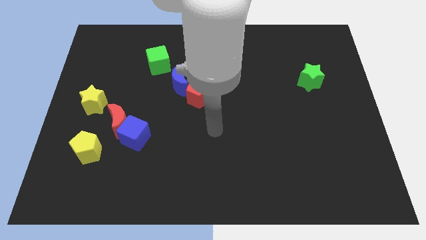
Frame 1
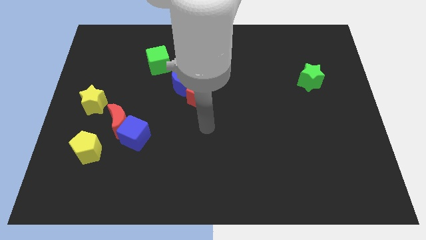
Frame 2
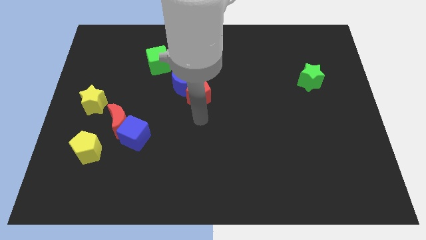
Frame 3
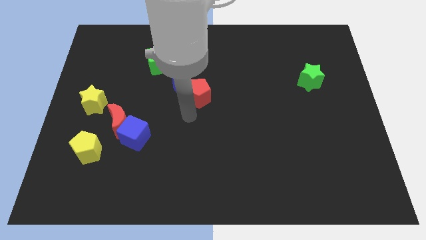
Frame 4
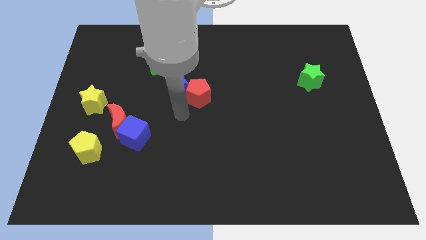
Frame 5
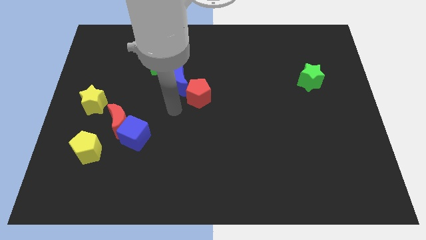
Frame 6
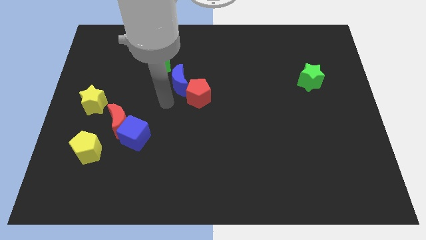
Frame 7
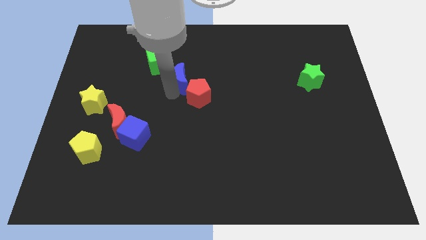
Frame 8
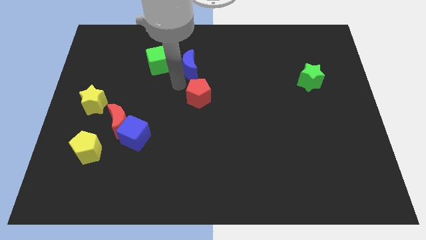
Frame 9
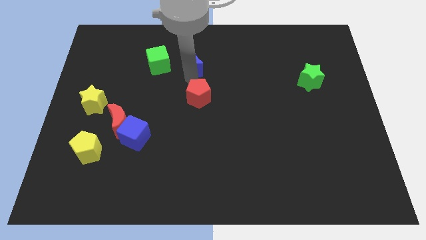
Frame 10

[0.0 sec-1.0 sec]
move the red pentagon away from the blue moon

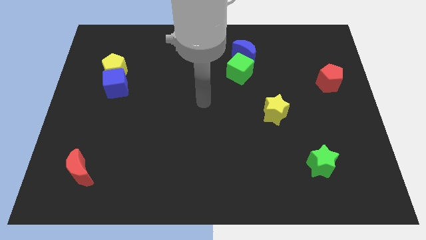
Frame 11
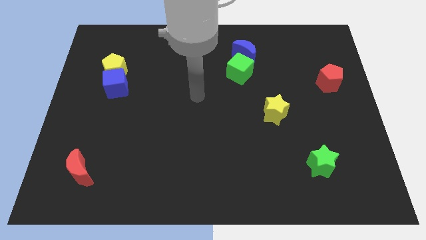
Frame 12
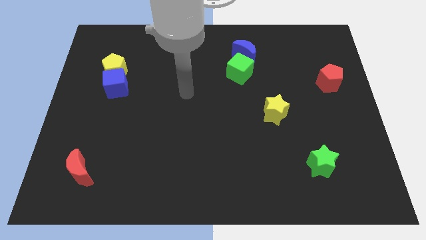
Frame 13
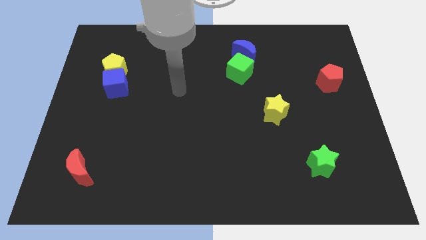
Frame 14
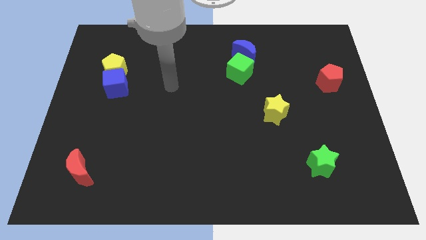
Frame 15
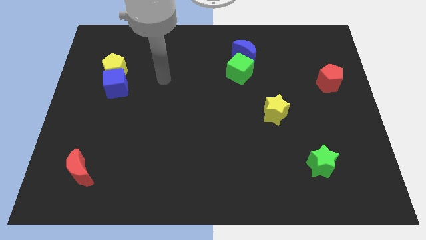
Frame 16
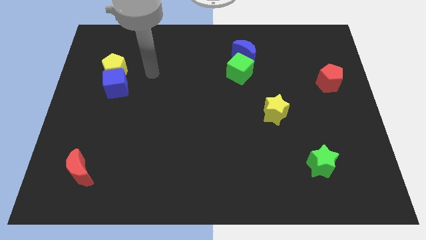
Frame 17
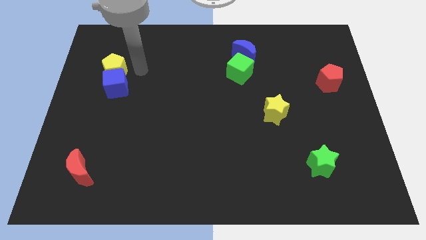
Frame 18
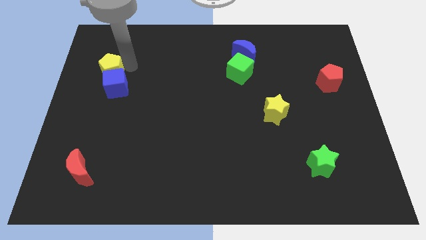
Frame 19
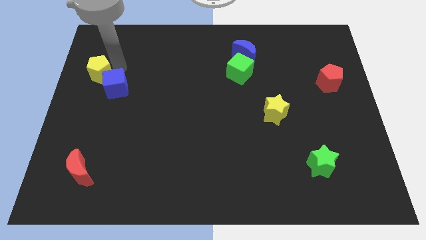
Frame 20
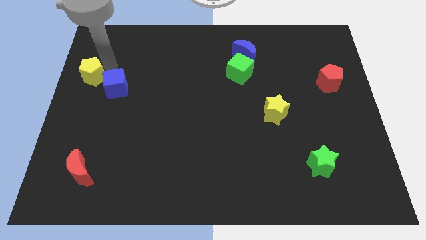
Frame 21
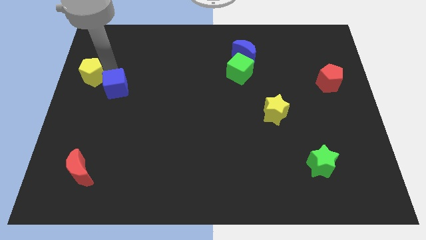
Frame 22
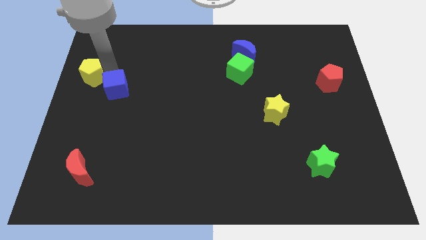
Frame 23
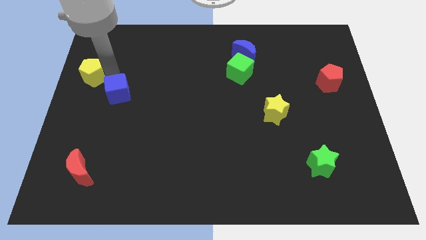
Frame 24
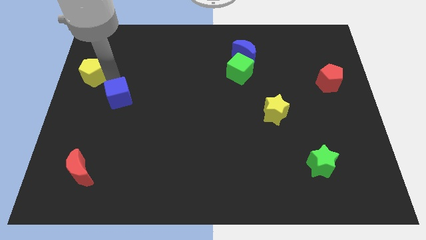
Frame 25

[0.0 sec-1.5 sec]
separate the blue cube from the yellow pentagon

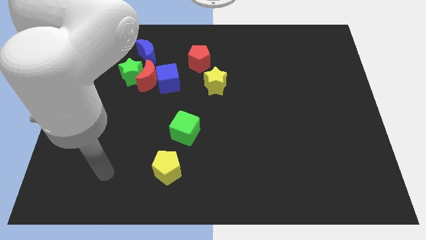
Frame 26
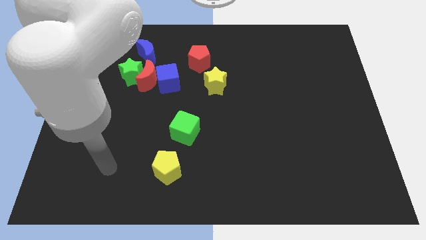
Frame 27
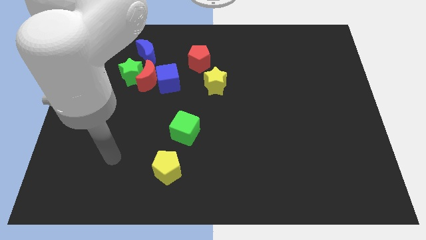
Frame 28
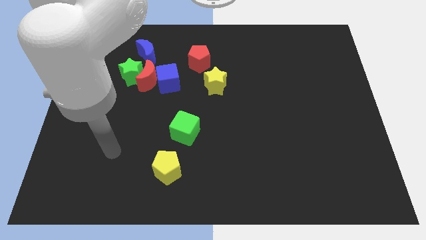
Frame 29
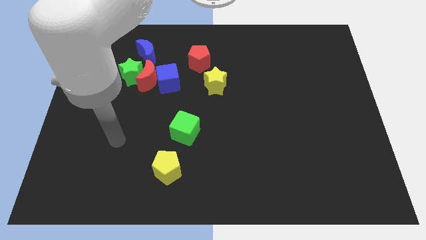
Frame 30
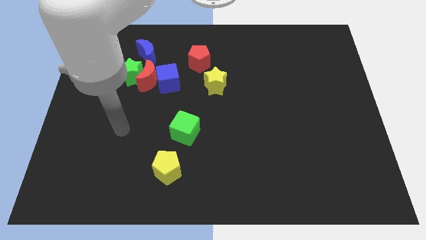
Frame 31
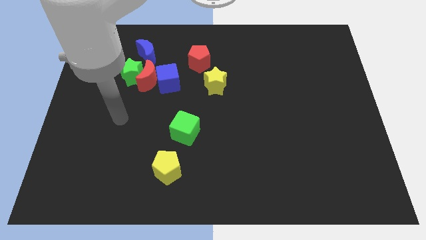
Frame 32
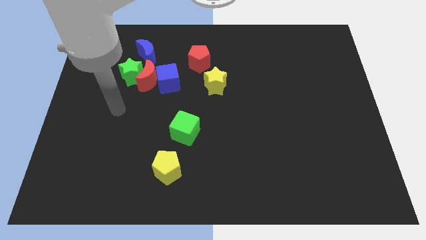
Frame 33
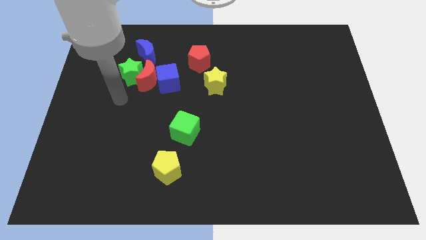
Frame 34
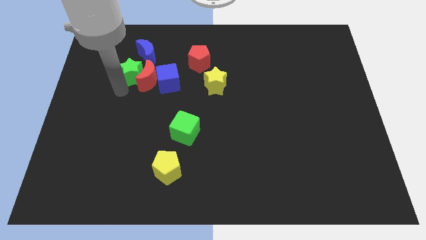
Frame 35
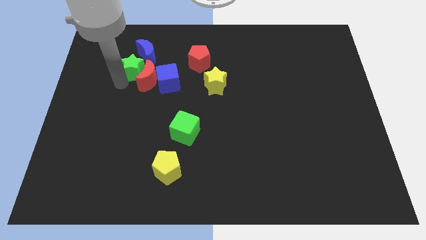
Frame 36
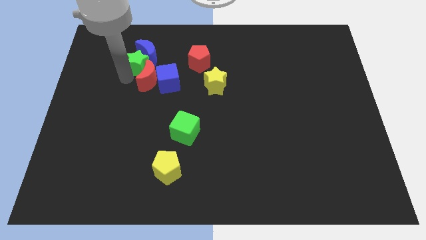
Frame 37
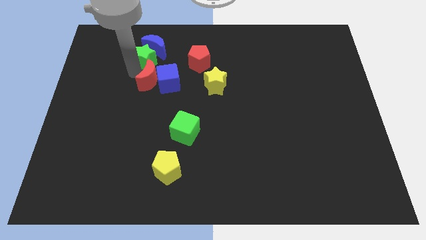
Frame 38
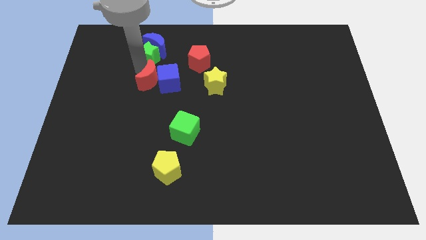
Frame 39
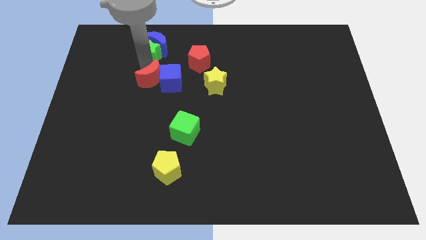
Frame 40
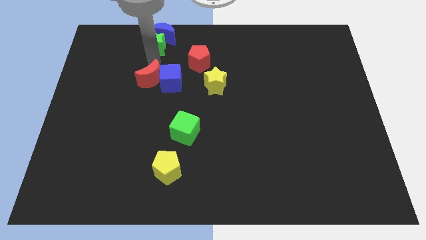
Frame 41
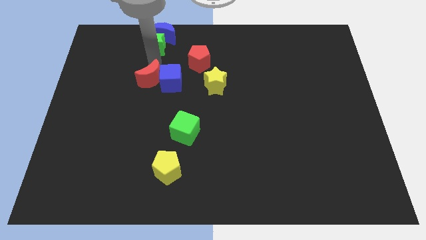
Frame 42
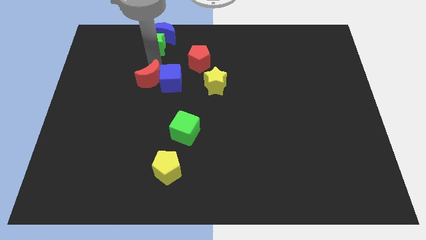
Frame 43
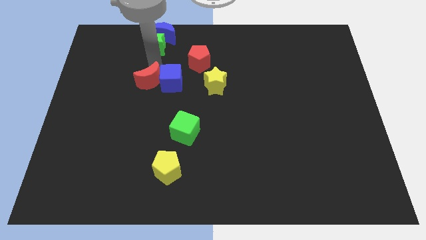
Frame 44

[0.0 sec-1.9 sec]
separate the red moon from the green star, blue cube, and blue moon

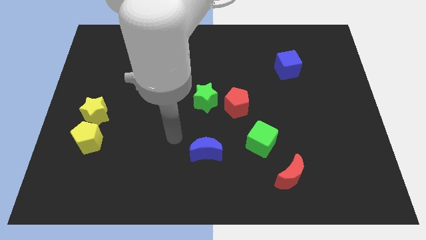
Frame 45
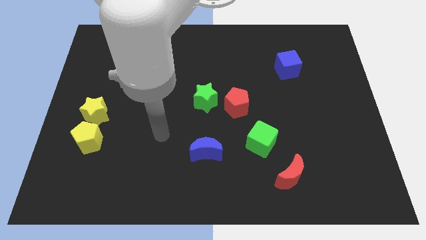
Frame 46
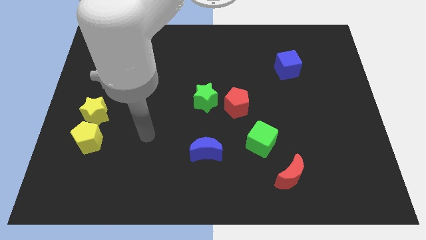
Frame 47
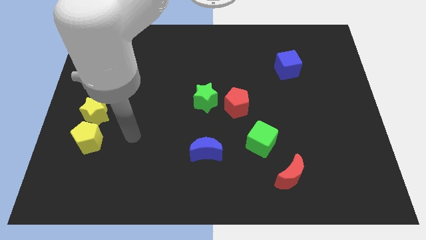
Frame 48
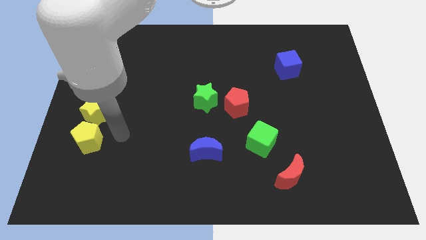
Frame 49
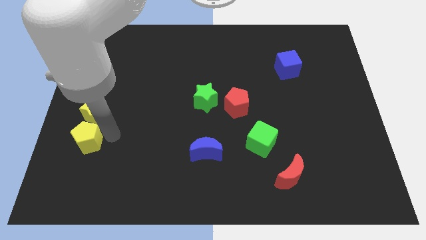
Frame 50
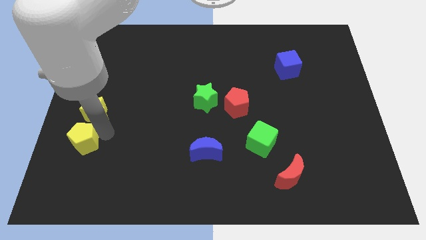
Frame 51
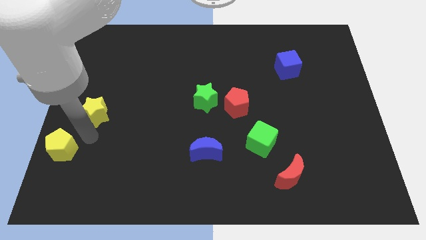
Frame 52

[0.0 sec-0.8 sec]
pull the yellow star apart from the yellow pentagon

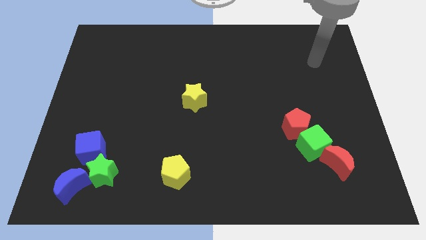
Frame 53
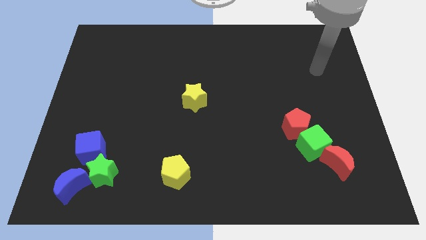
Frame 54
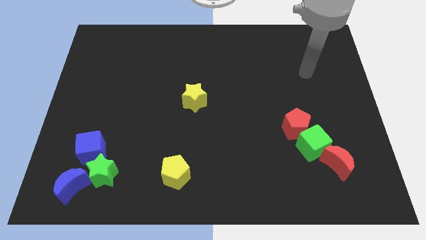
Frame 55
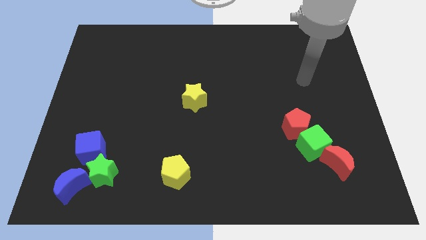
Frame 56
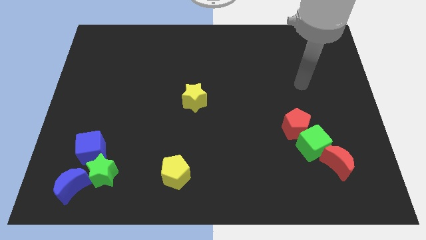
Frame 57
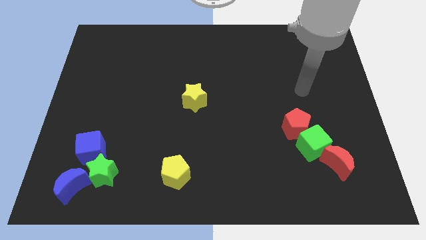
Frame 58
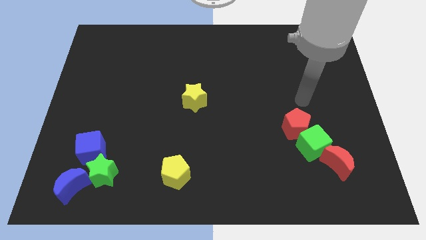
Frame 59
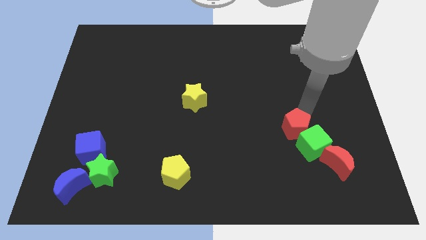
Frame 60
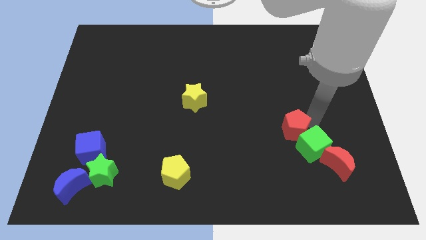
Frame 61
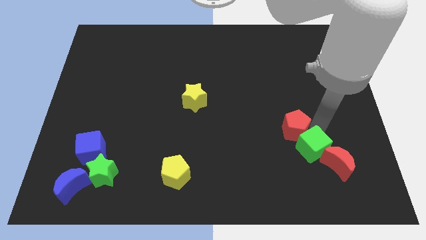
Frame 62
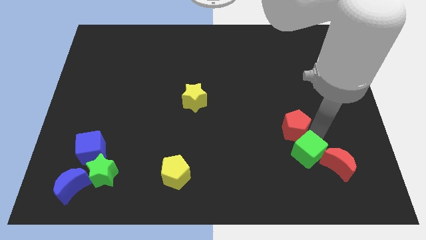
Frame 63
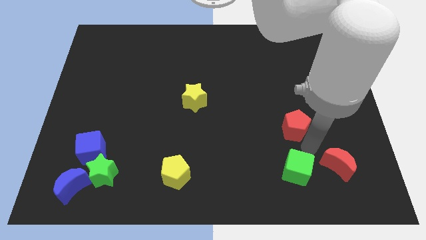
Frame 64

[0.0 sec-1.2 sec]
separate the red pentagon from the green cube

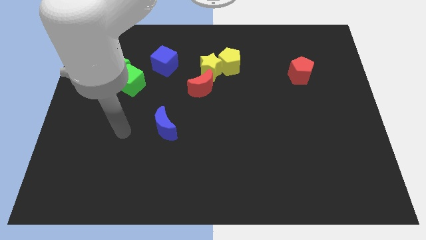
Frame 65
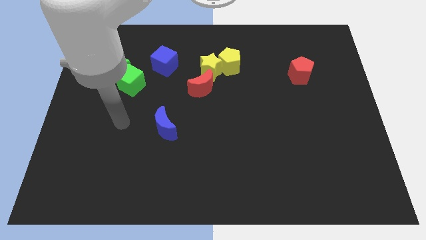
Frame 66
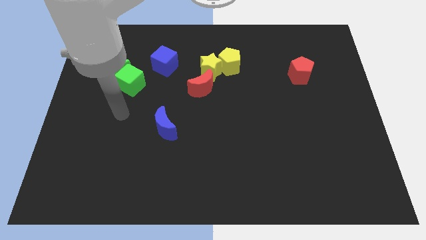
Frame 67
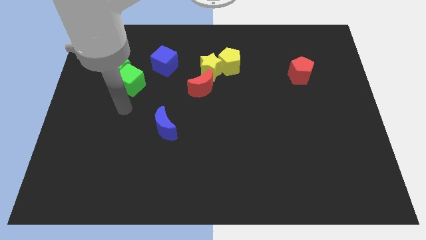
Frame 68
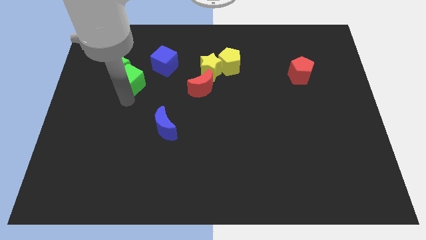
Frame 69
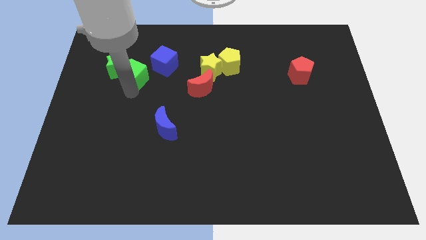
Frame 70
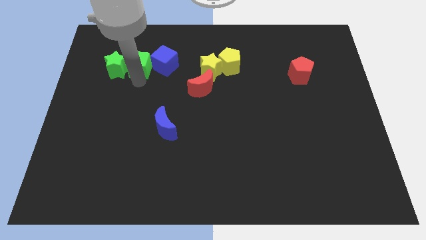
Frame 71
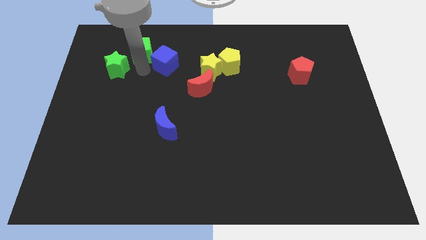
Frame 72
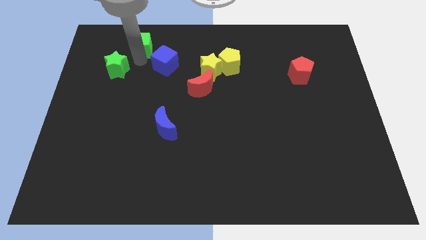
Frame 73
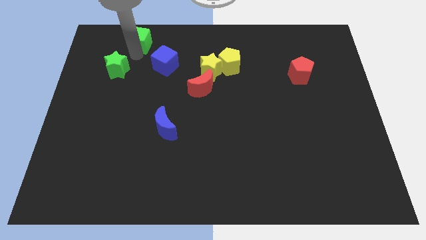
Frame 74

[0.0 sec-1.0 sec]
separate the green star from the green cube

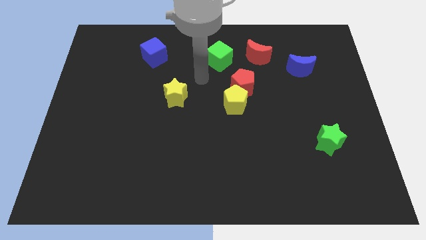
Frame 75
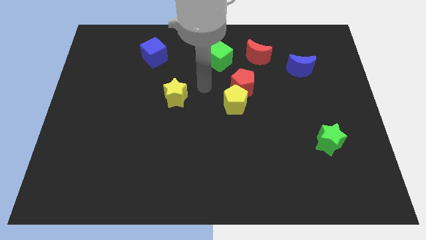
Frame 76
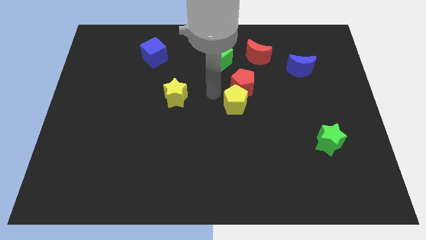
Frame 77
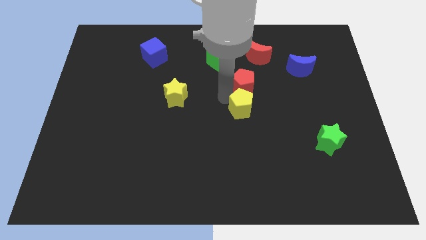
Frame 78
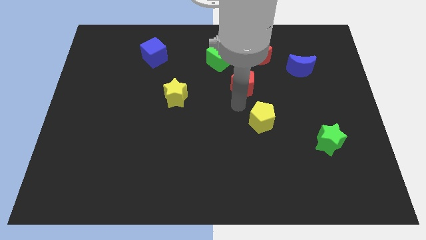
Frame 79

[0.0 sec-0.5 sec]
move the red pentagon away from the yellow pentagon

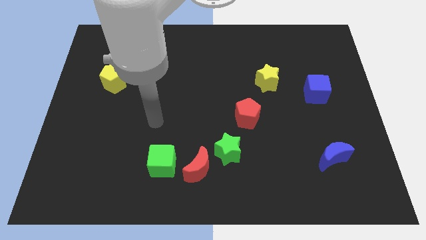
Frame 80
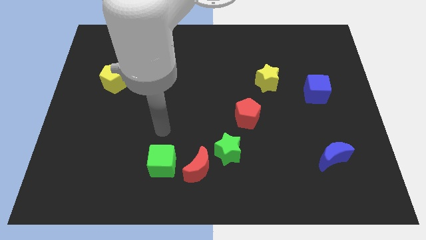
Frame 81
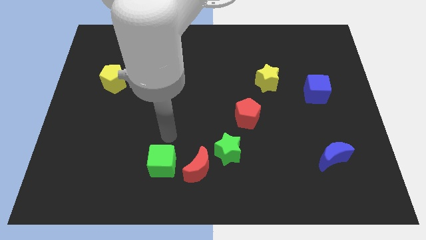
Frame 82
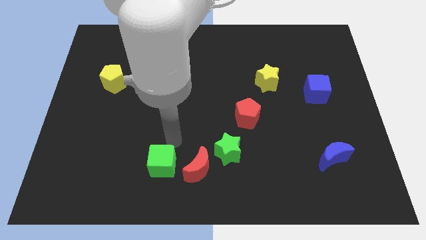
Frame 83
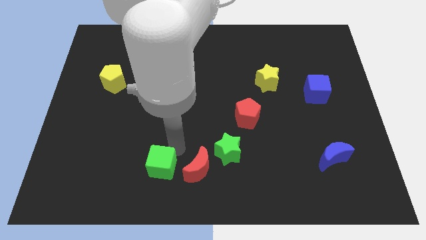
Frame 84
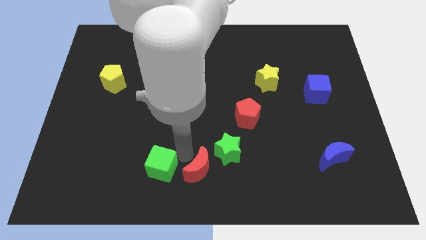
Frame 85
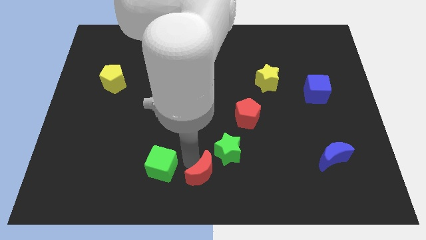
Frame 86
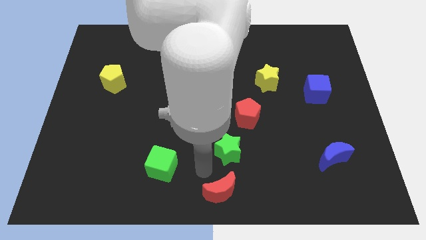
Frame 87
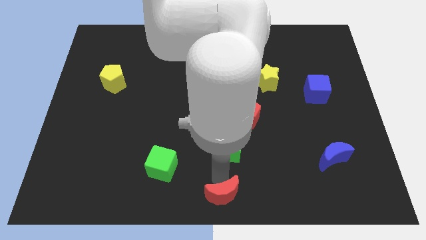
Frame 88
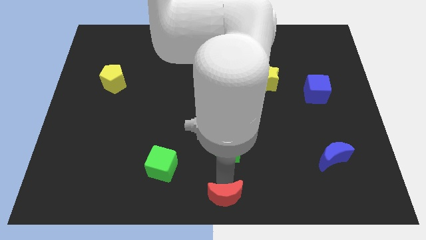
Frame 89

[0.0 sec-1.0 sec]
separate the green star from the red moon

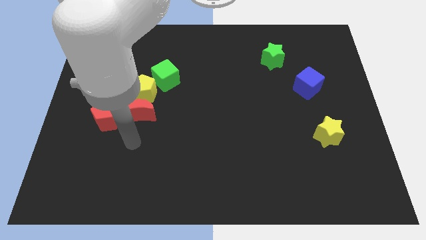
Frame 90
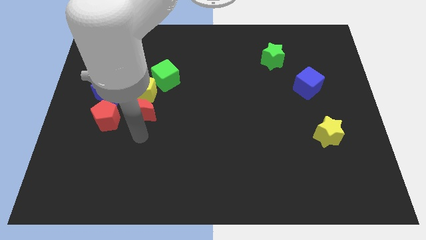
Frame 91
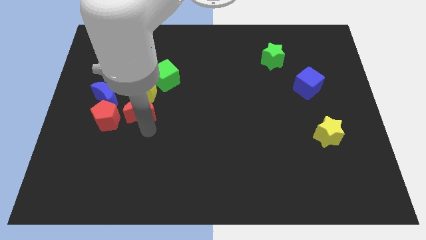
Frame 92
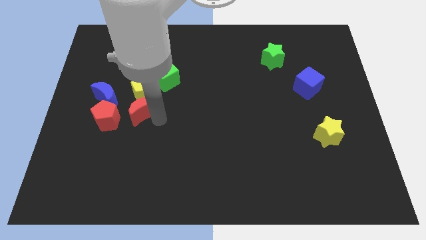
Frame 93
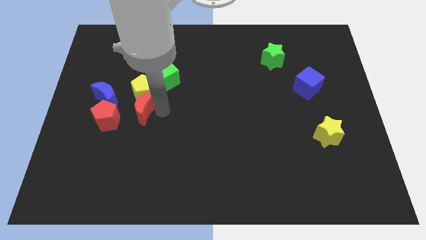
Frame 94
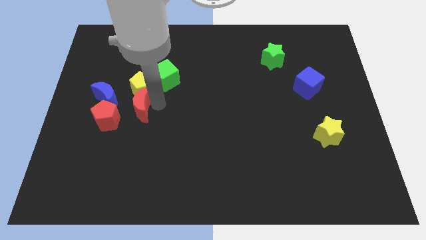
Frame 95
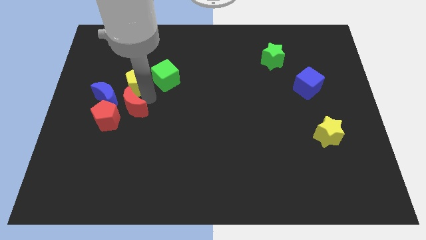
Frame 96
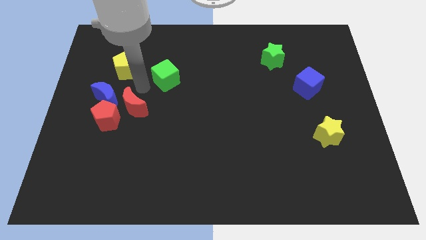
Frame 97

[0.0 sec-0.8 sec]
separate the green cube from the yellow pentagon
